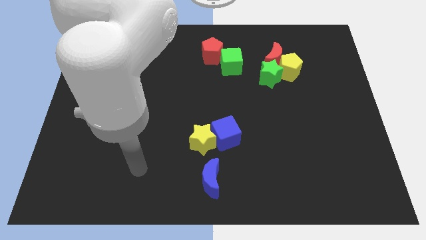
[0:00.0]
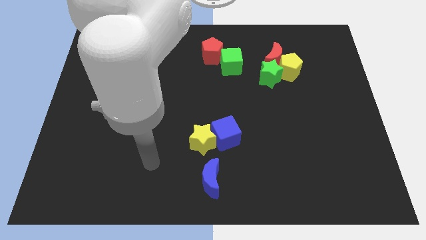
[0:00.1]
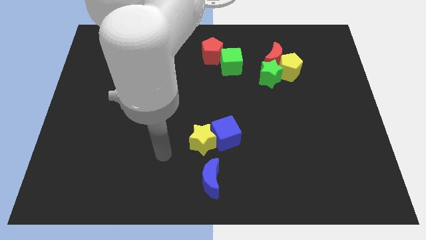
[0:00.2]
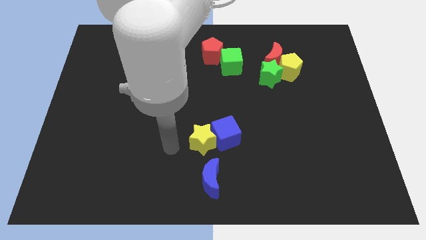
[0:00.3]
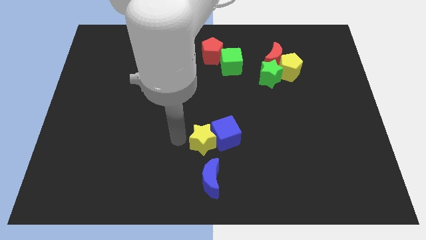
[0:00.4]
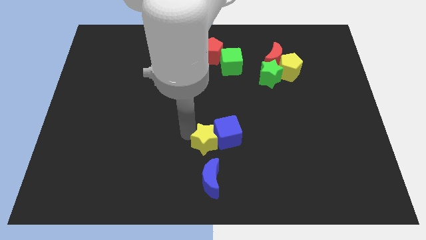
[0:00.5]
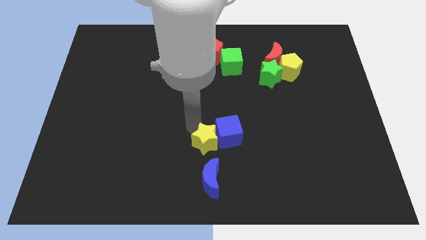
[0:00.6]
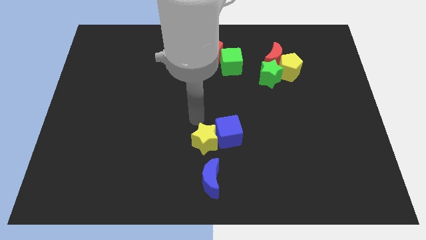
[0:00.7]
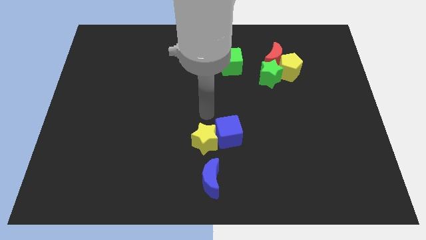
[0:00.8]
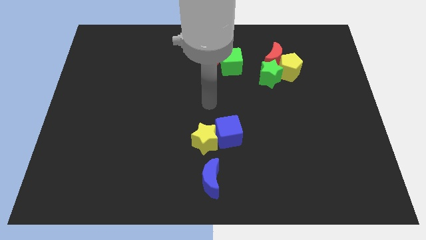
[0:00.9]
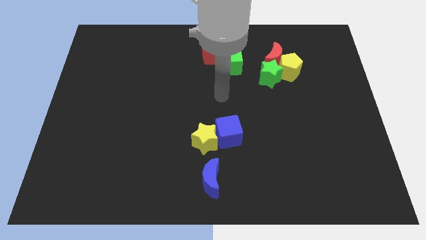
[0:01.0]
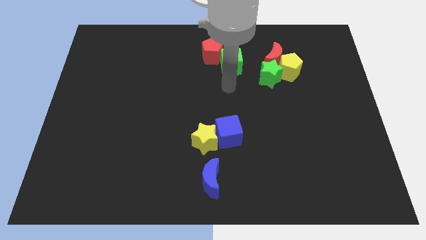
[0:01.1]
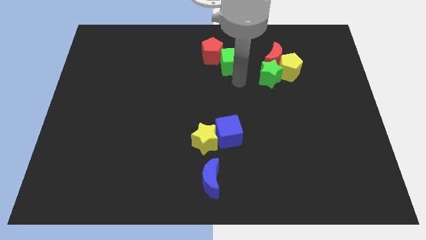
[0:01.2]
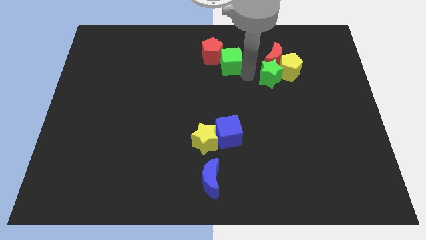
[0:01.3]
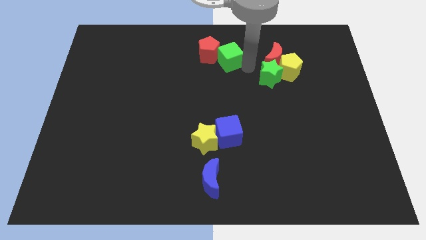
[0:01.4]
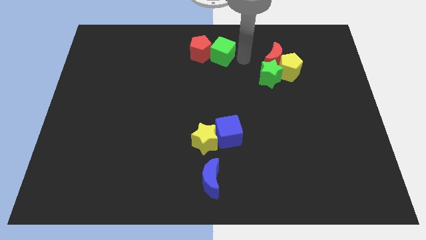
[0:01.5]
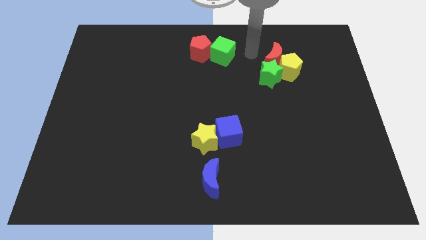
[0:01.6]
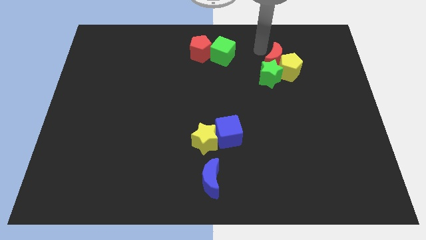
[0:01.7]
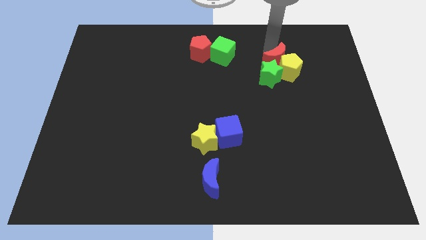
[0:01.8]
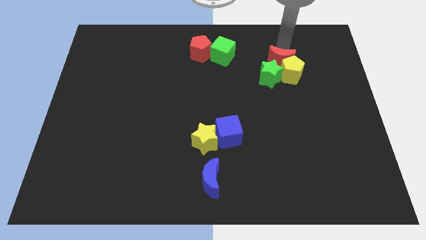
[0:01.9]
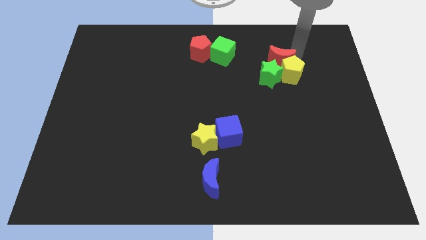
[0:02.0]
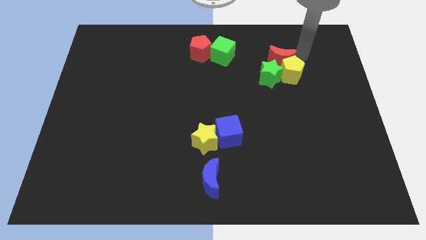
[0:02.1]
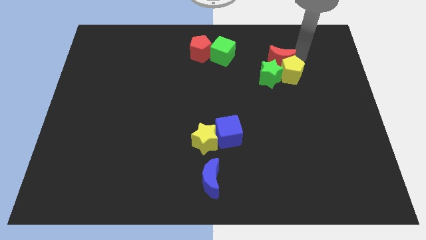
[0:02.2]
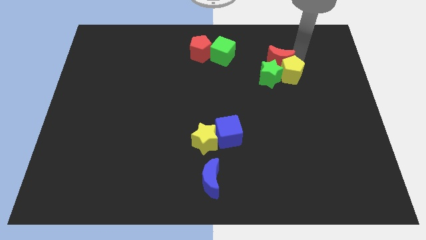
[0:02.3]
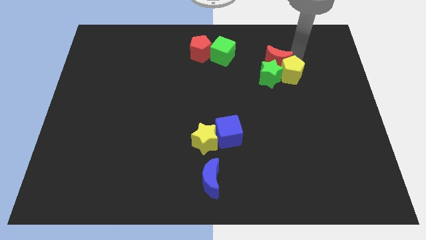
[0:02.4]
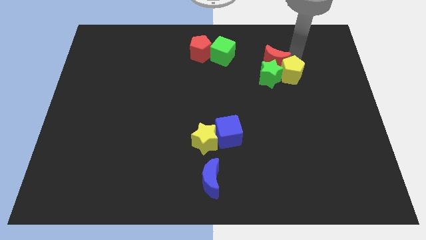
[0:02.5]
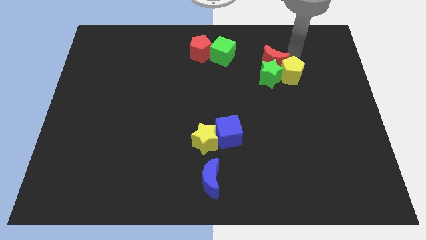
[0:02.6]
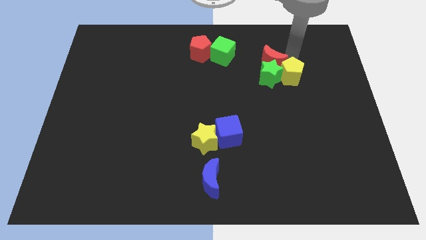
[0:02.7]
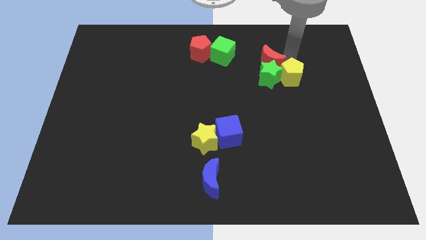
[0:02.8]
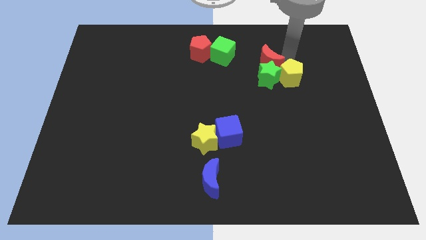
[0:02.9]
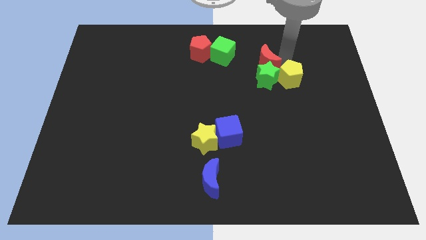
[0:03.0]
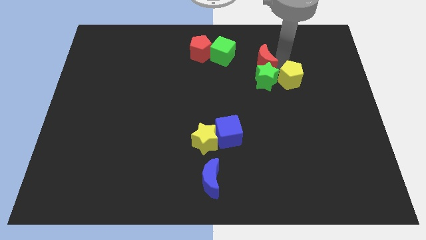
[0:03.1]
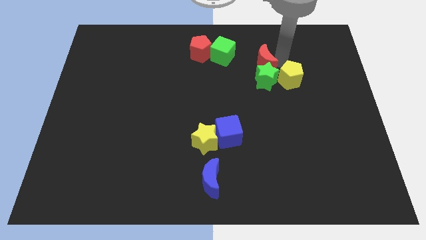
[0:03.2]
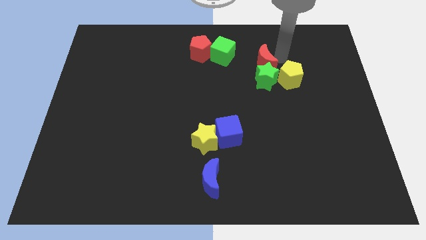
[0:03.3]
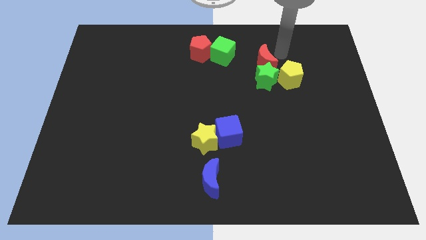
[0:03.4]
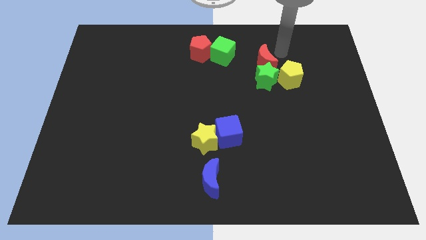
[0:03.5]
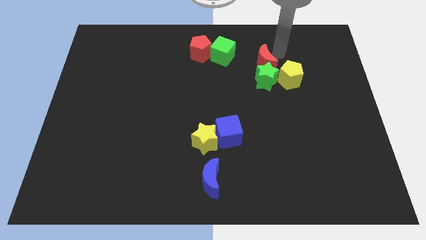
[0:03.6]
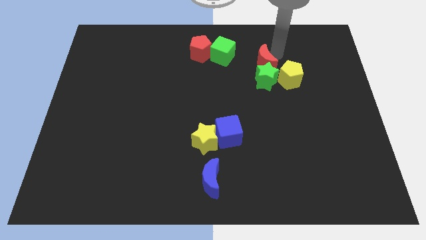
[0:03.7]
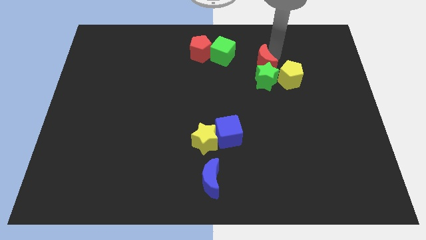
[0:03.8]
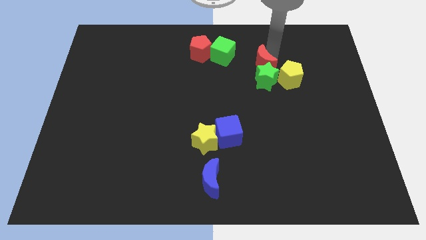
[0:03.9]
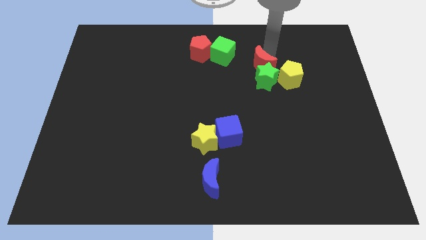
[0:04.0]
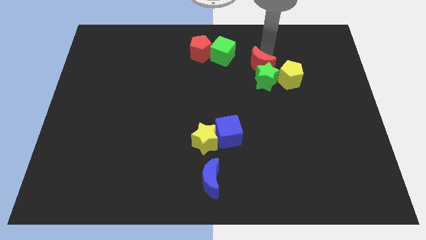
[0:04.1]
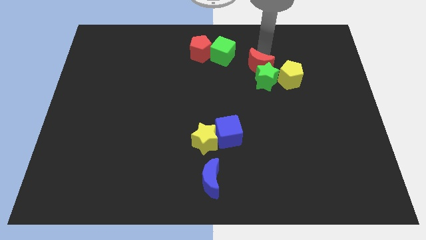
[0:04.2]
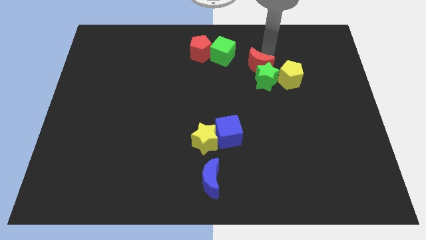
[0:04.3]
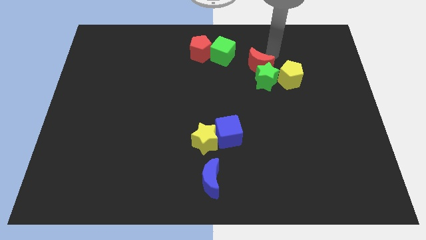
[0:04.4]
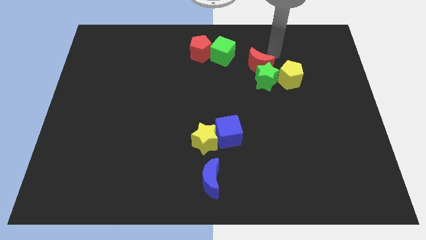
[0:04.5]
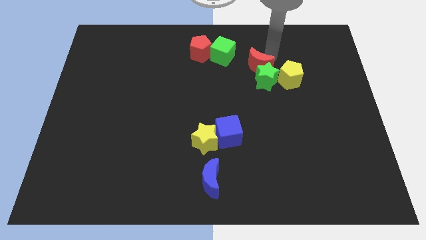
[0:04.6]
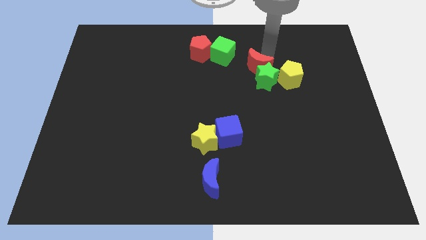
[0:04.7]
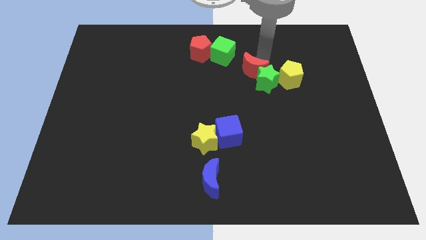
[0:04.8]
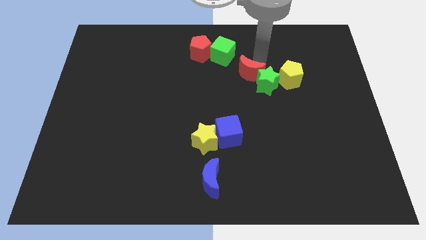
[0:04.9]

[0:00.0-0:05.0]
push the red moon down and then left somewhat

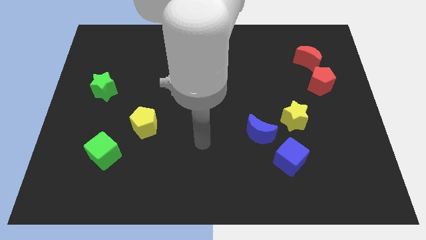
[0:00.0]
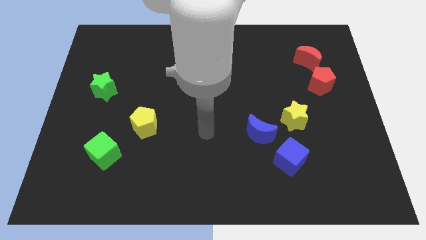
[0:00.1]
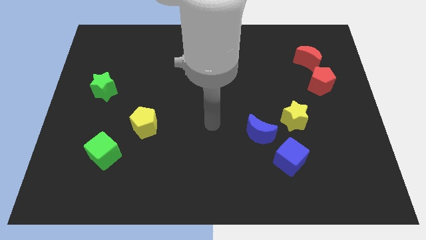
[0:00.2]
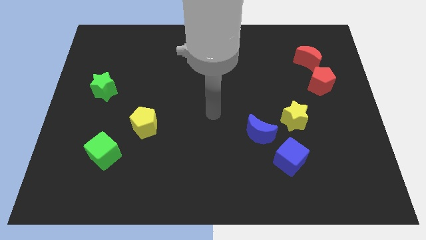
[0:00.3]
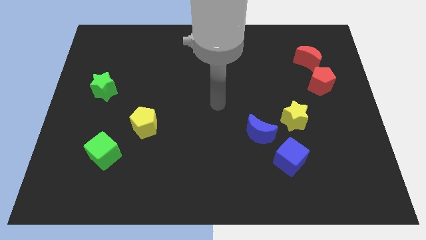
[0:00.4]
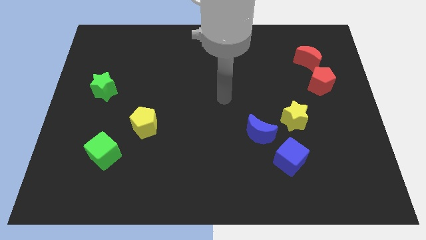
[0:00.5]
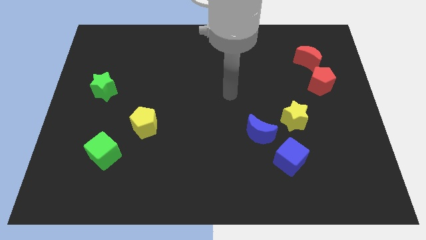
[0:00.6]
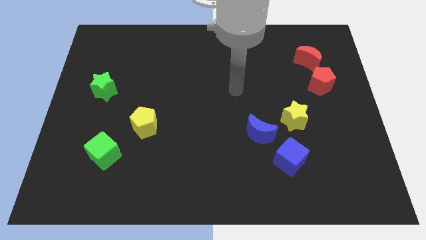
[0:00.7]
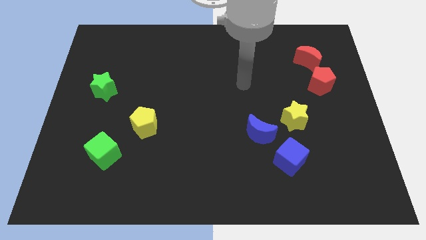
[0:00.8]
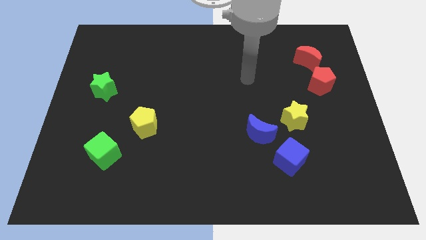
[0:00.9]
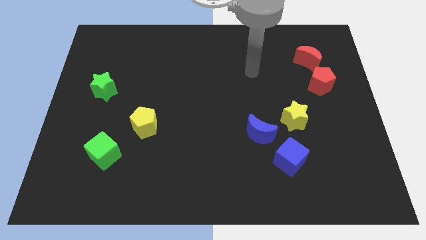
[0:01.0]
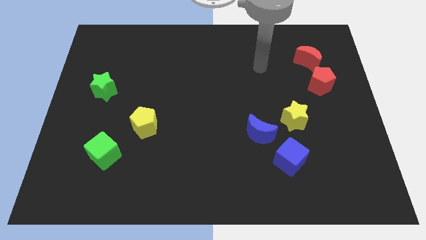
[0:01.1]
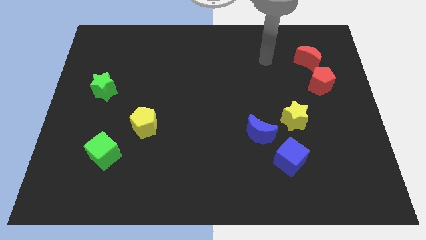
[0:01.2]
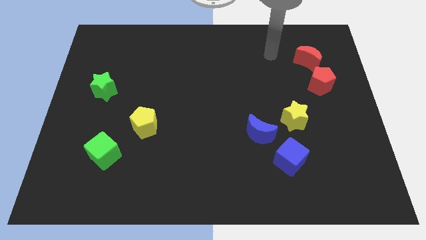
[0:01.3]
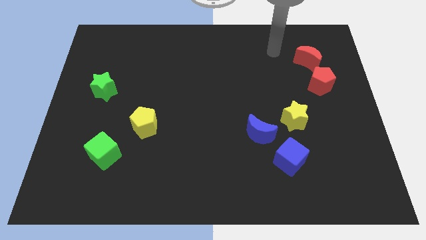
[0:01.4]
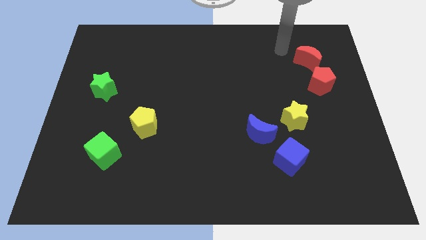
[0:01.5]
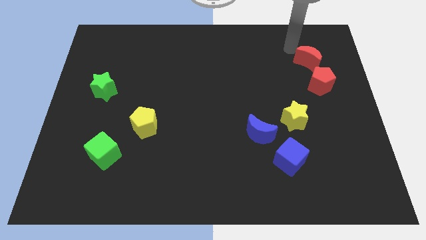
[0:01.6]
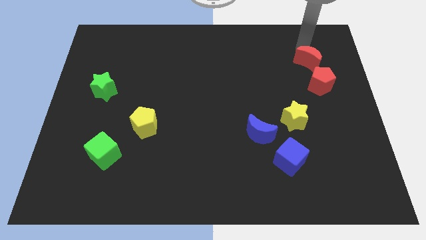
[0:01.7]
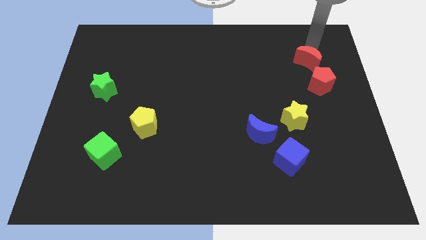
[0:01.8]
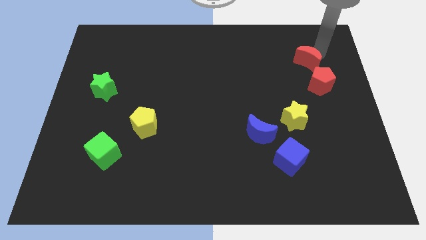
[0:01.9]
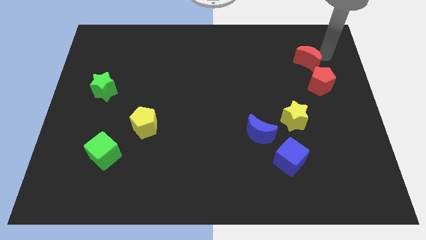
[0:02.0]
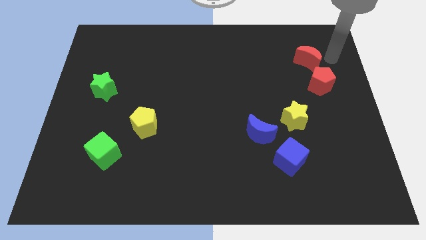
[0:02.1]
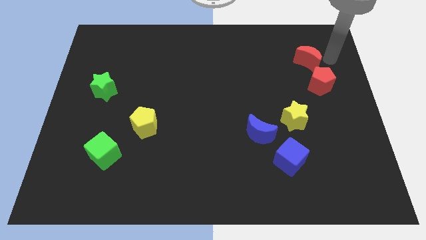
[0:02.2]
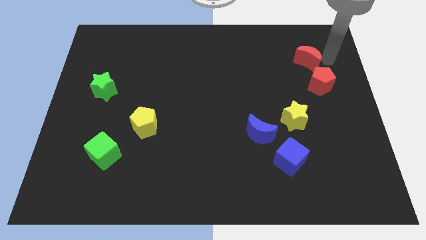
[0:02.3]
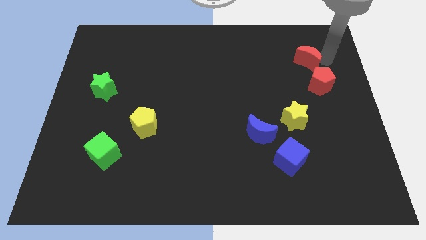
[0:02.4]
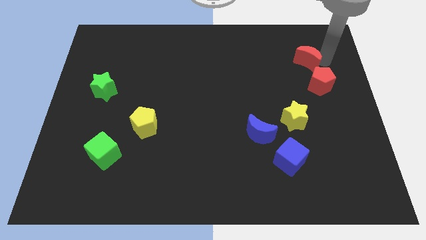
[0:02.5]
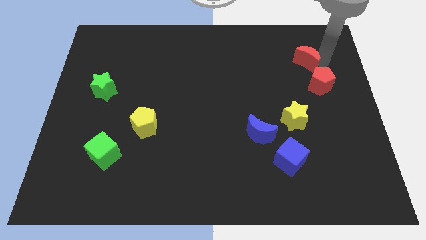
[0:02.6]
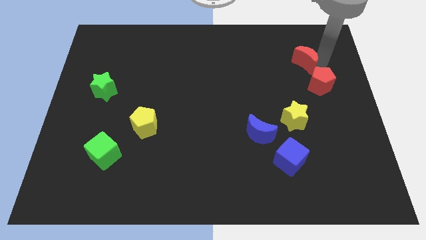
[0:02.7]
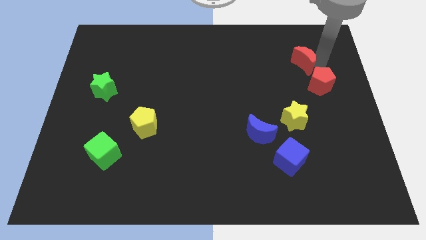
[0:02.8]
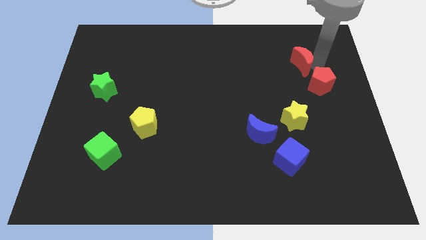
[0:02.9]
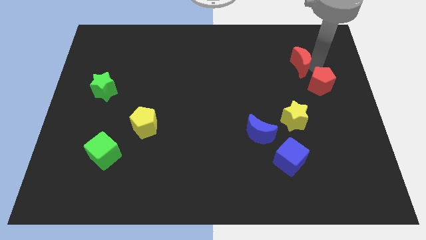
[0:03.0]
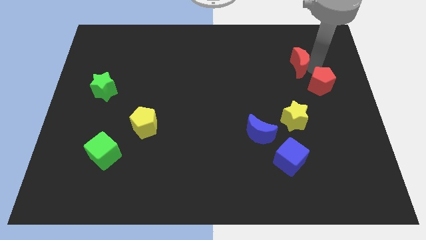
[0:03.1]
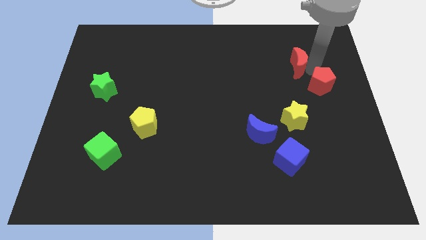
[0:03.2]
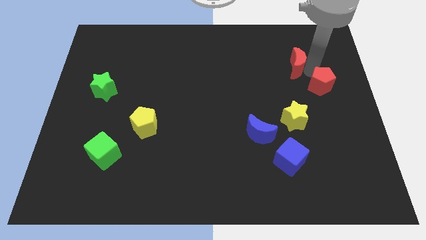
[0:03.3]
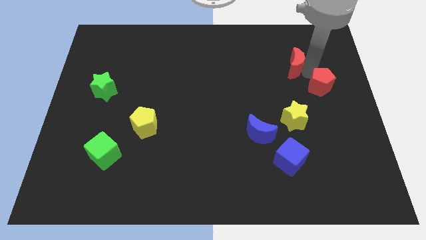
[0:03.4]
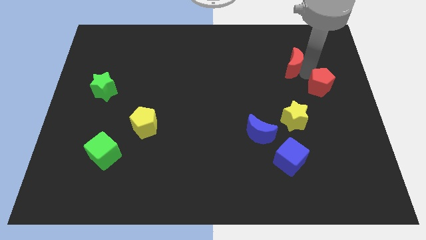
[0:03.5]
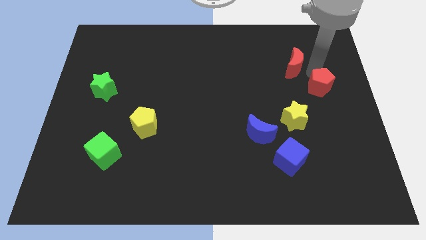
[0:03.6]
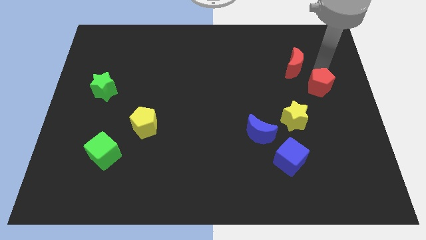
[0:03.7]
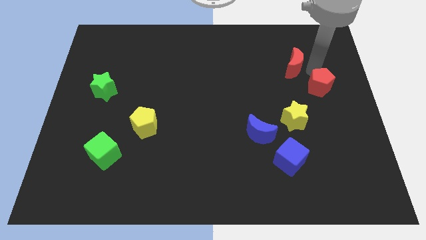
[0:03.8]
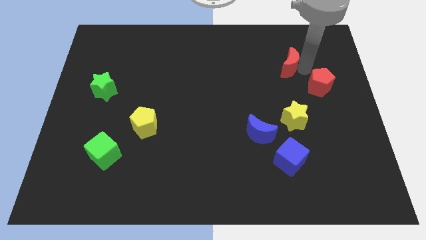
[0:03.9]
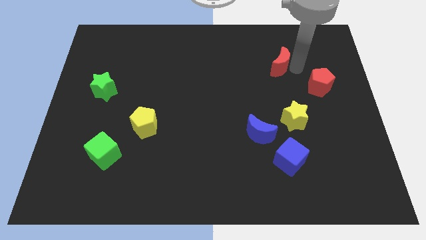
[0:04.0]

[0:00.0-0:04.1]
push the red moon a little bit left
